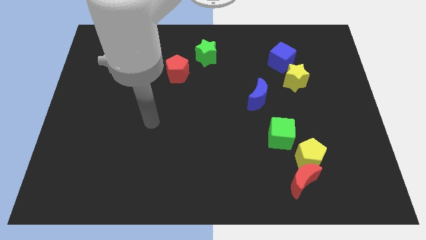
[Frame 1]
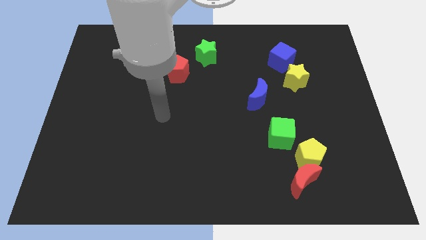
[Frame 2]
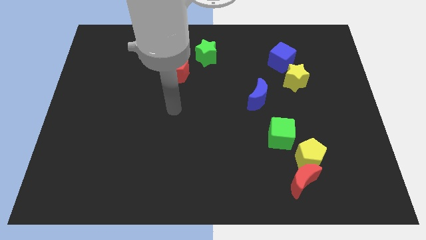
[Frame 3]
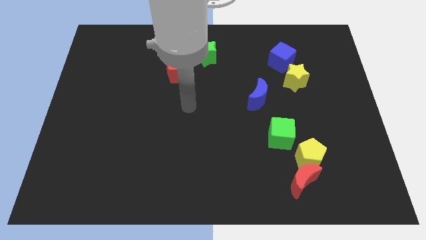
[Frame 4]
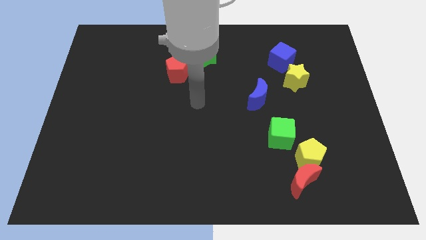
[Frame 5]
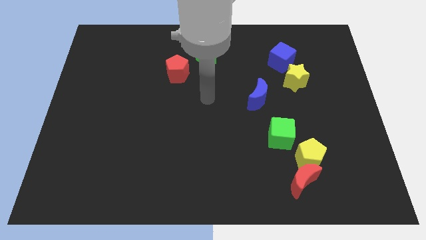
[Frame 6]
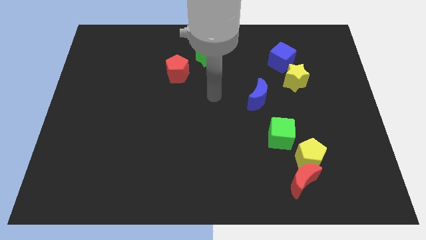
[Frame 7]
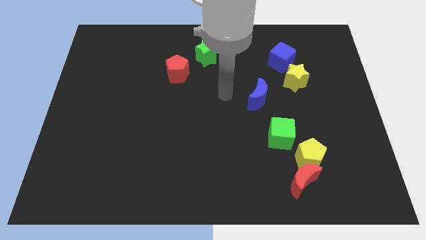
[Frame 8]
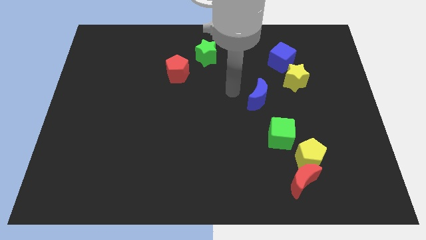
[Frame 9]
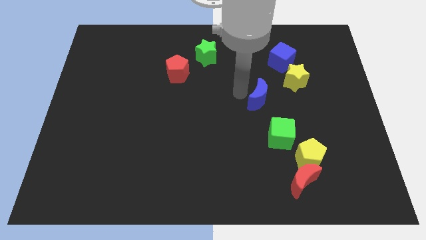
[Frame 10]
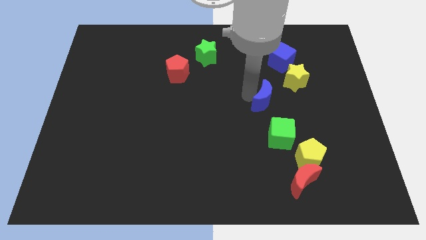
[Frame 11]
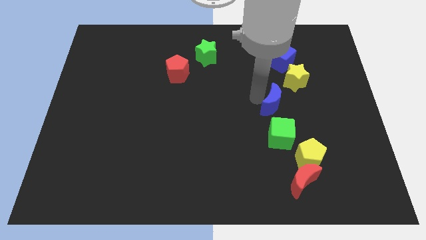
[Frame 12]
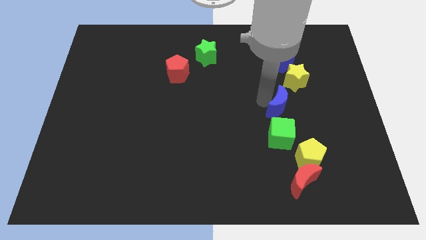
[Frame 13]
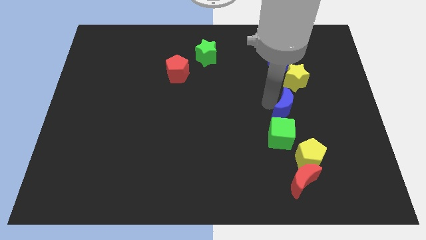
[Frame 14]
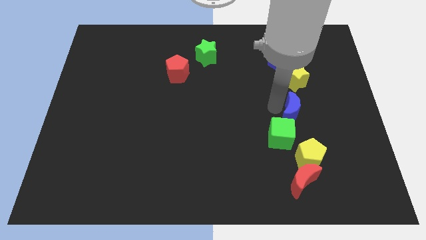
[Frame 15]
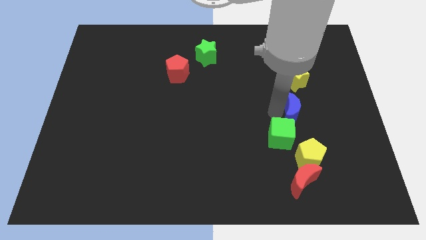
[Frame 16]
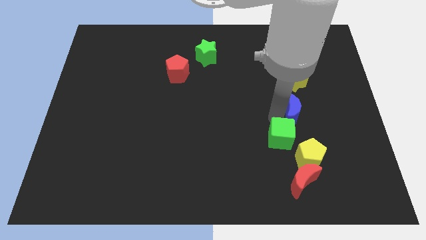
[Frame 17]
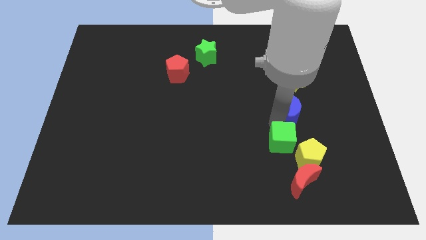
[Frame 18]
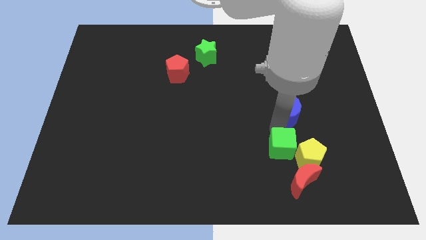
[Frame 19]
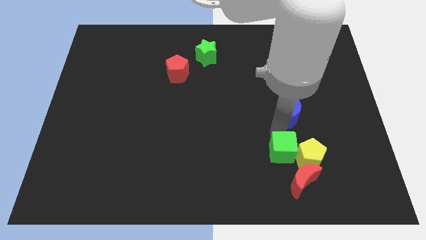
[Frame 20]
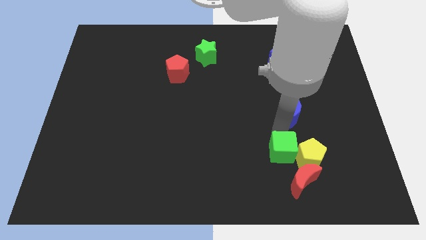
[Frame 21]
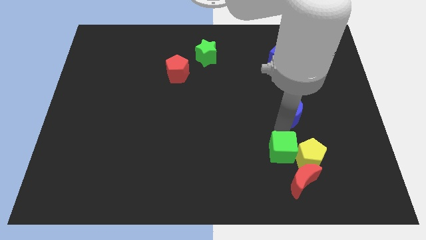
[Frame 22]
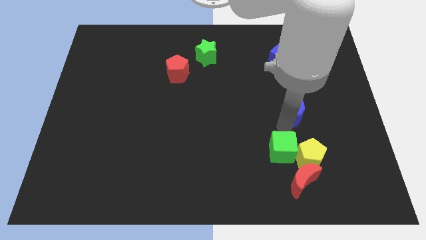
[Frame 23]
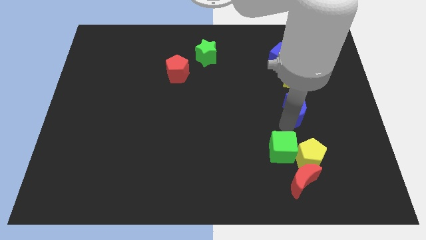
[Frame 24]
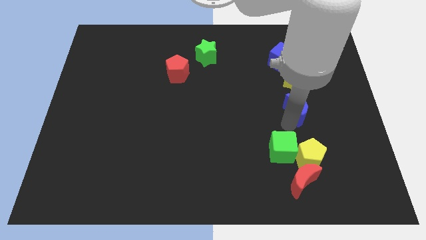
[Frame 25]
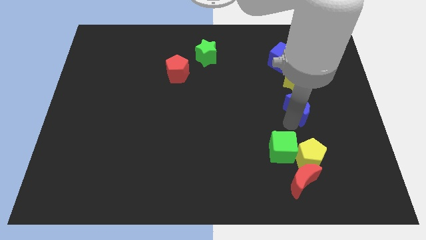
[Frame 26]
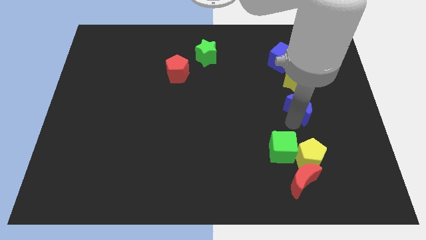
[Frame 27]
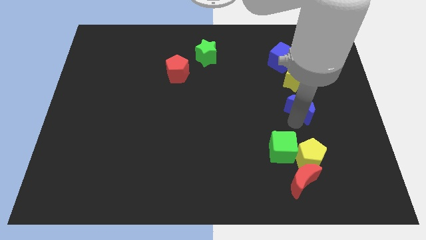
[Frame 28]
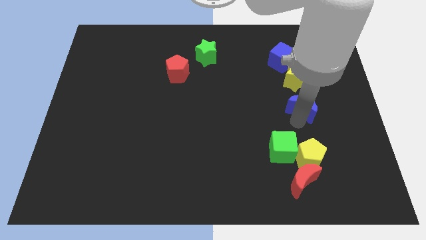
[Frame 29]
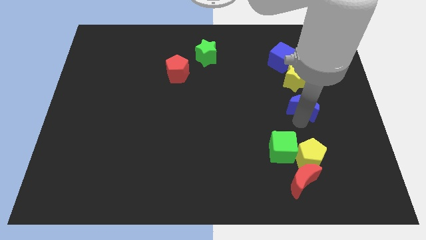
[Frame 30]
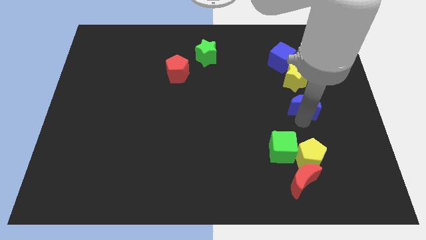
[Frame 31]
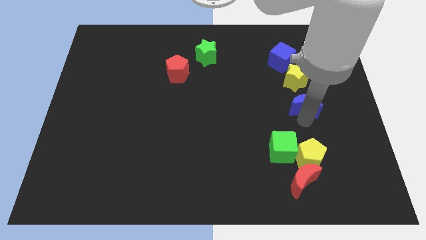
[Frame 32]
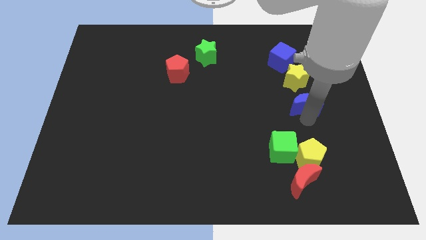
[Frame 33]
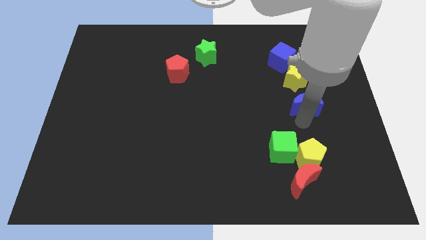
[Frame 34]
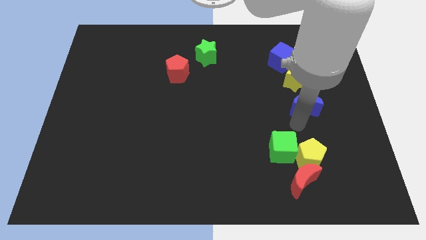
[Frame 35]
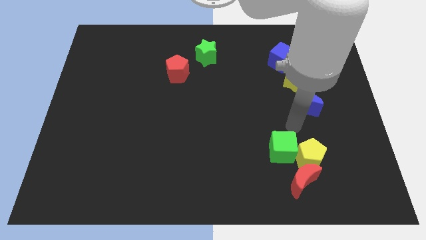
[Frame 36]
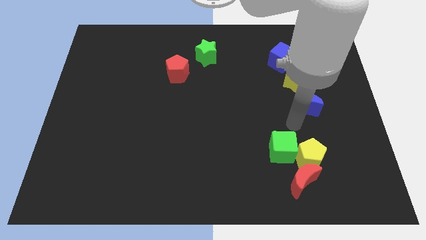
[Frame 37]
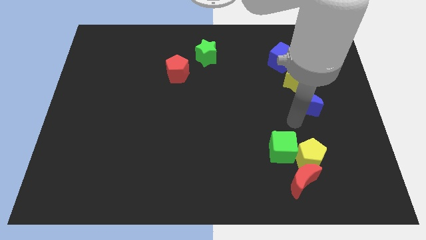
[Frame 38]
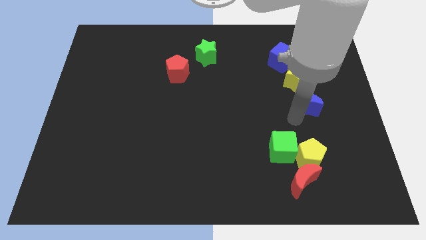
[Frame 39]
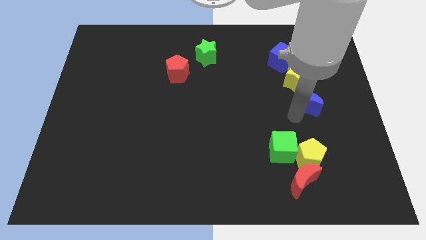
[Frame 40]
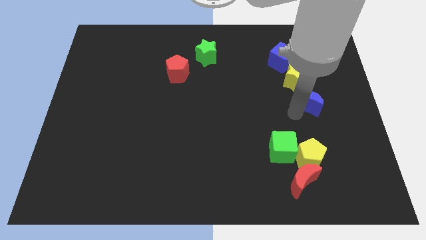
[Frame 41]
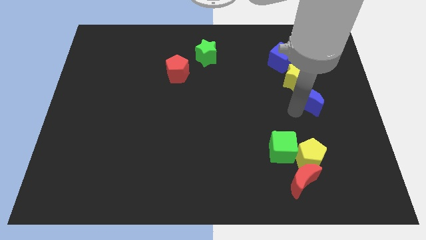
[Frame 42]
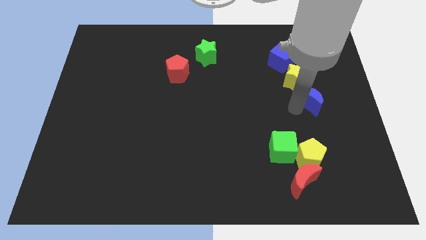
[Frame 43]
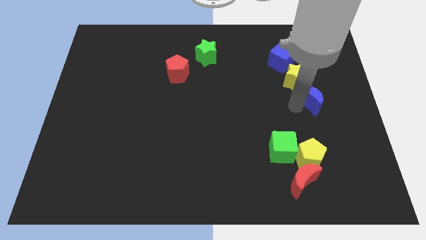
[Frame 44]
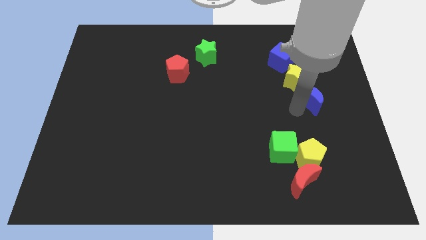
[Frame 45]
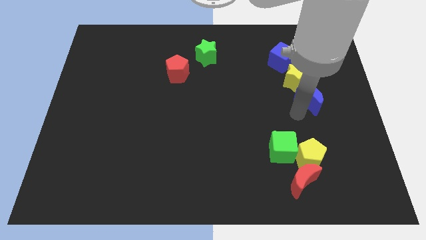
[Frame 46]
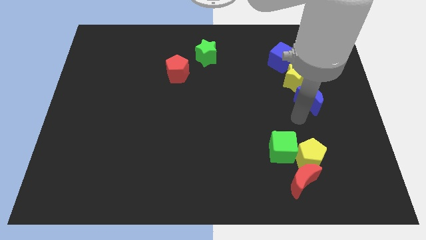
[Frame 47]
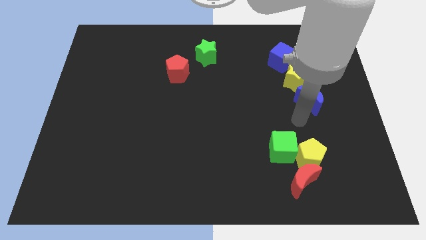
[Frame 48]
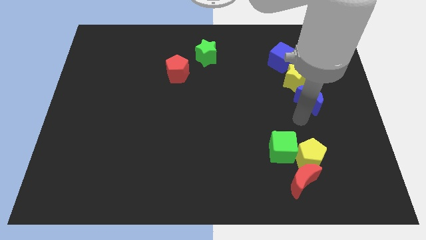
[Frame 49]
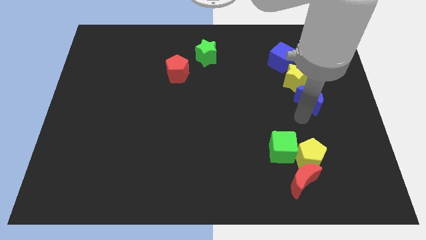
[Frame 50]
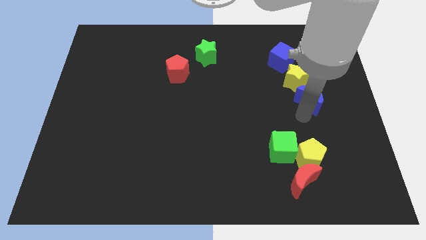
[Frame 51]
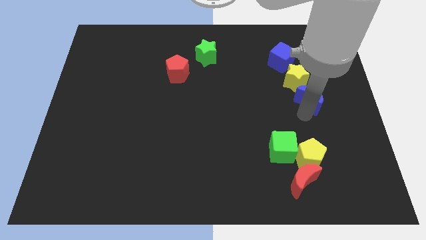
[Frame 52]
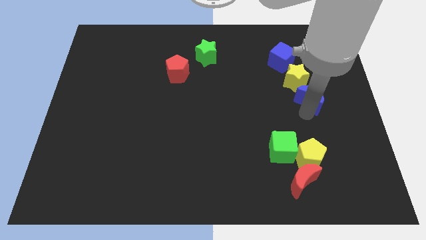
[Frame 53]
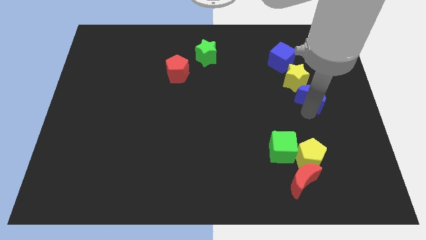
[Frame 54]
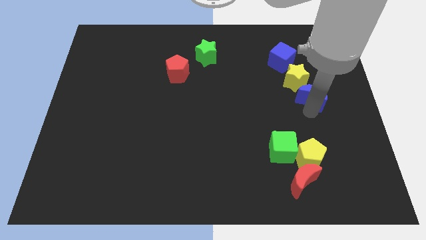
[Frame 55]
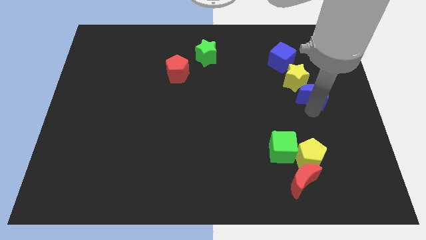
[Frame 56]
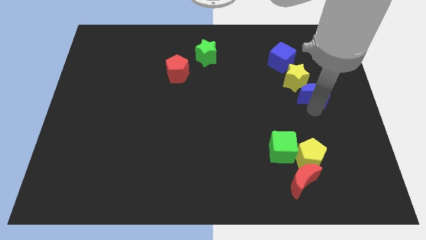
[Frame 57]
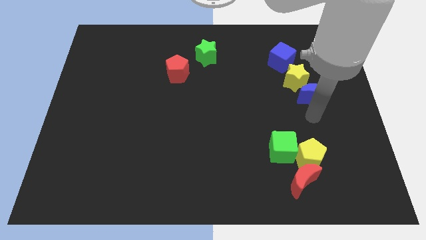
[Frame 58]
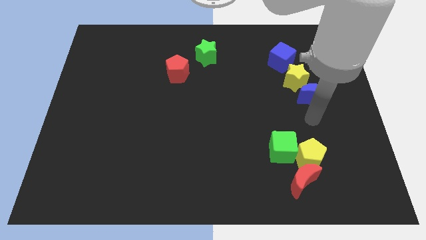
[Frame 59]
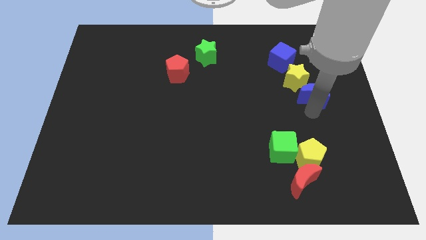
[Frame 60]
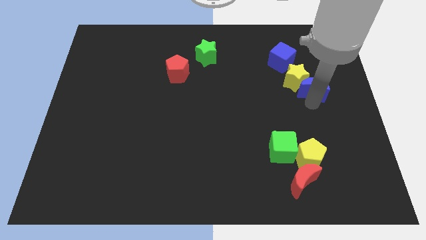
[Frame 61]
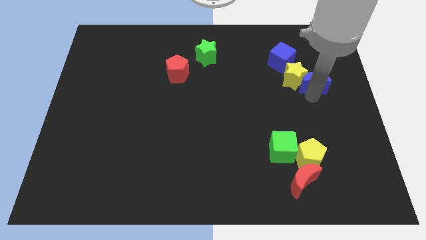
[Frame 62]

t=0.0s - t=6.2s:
slide the blue moon diagonally up and to the right of the yellow star

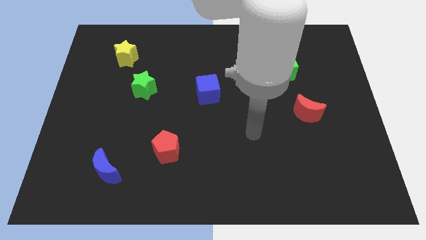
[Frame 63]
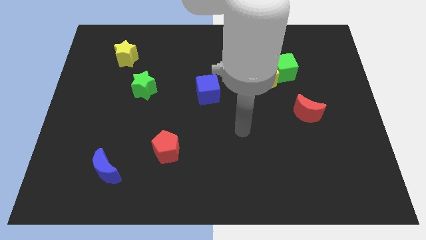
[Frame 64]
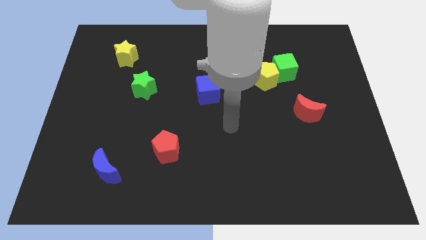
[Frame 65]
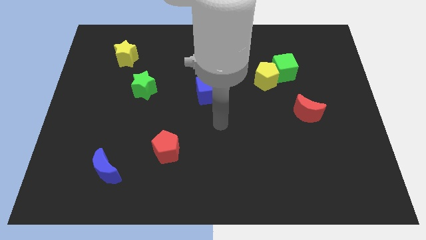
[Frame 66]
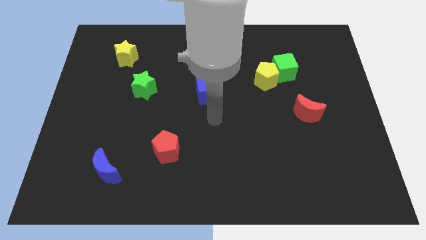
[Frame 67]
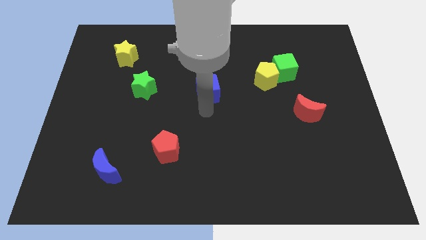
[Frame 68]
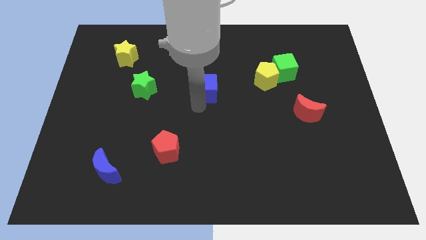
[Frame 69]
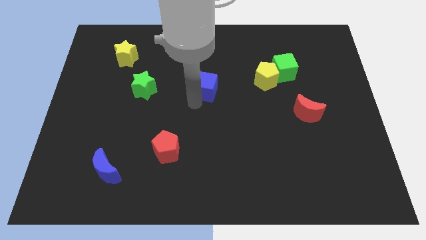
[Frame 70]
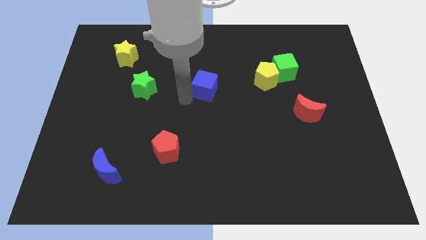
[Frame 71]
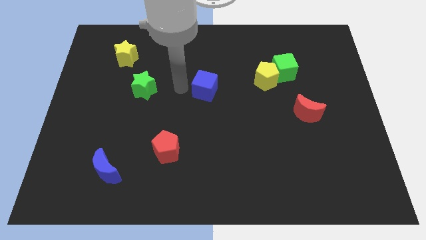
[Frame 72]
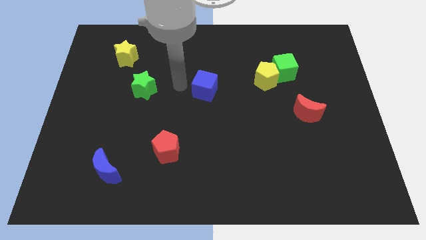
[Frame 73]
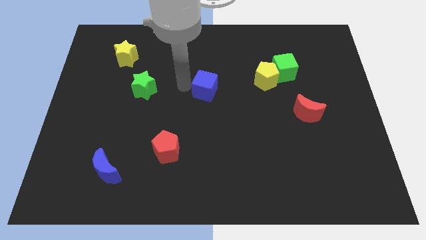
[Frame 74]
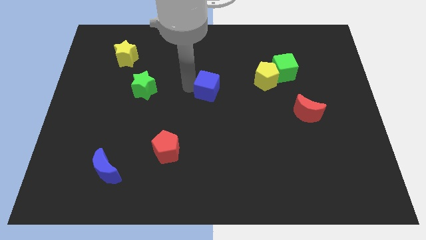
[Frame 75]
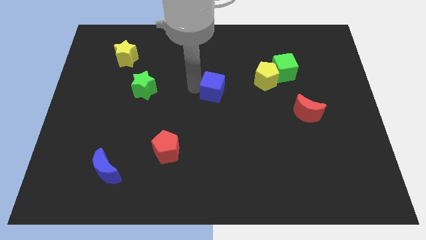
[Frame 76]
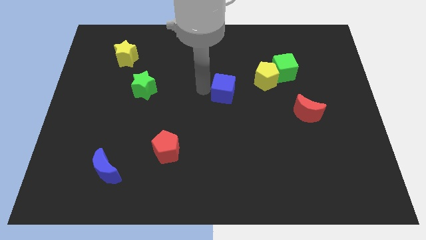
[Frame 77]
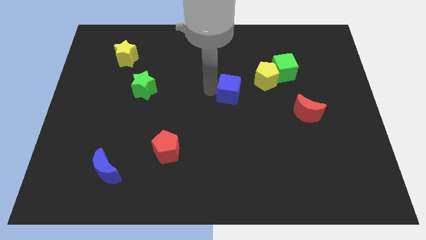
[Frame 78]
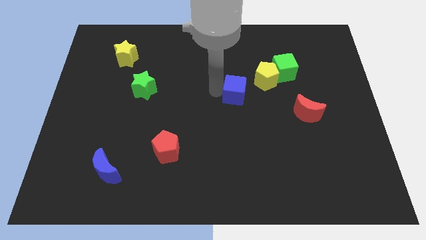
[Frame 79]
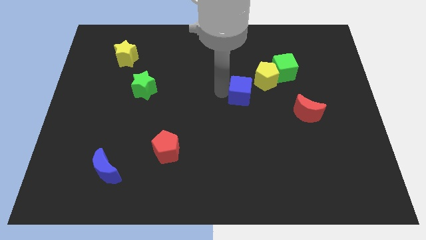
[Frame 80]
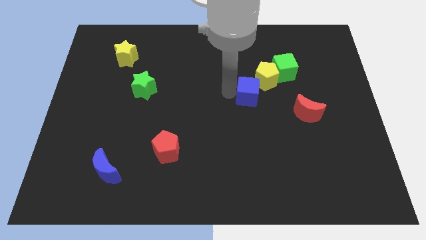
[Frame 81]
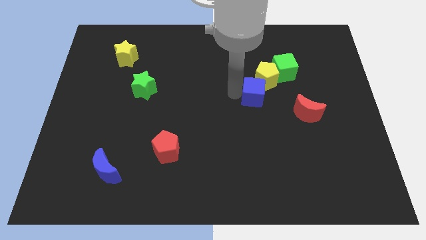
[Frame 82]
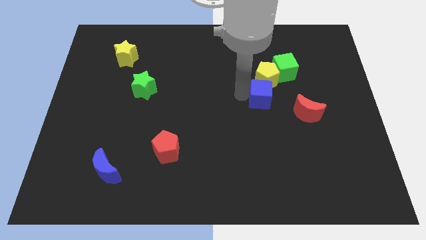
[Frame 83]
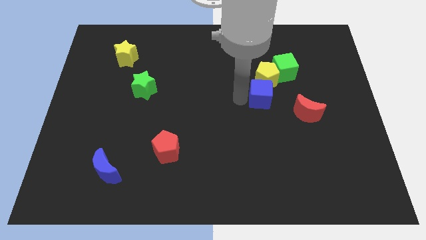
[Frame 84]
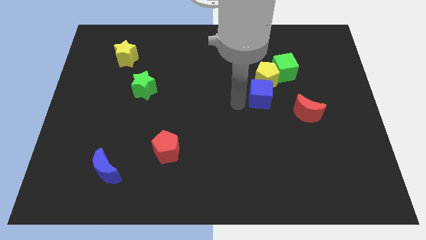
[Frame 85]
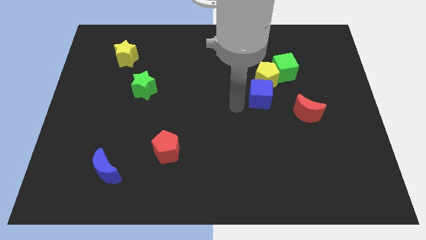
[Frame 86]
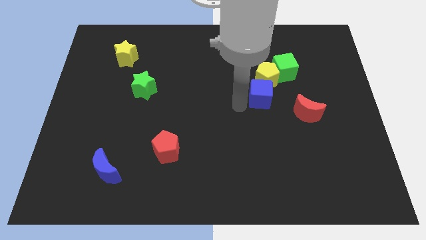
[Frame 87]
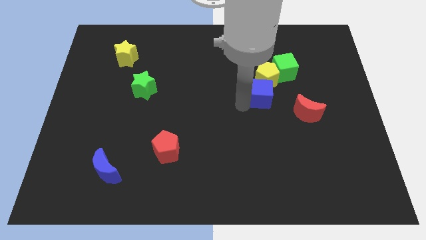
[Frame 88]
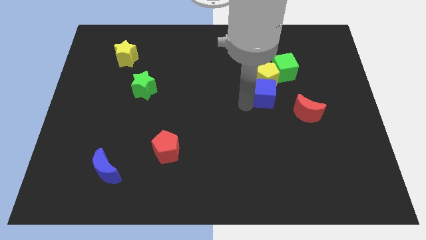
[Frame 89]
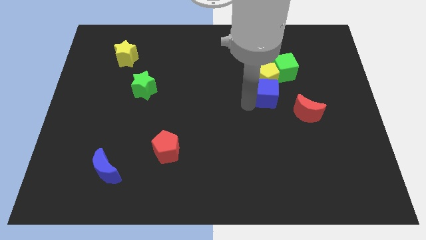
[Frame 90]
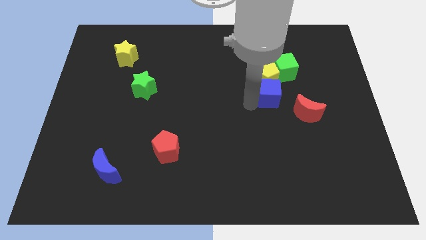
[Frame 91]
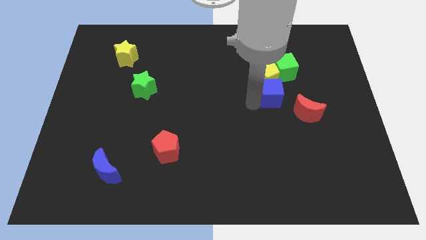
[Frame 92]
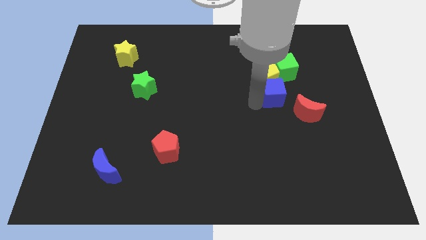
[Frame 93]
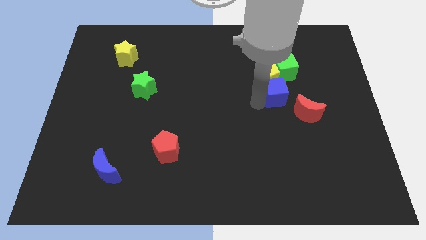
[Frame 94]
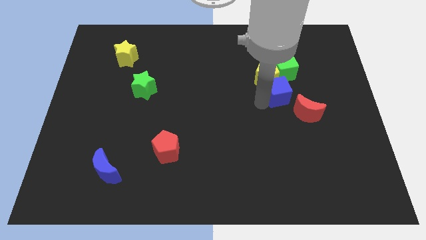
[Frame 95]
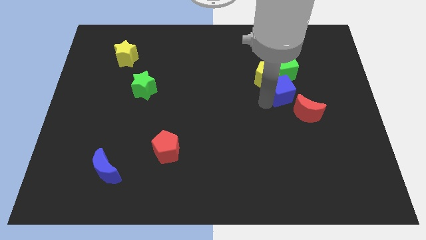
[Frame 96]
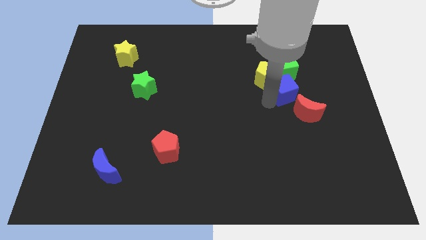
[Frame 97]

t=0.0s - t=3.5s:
push the blue cube to the top of the red moon
